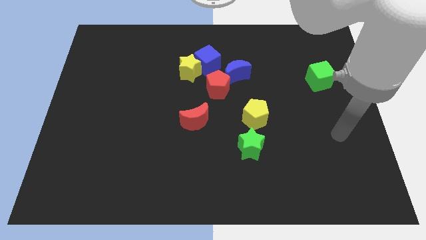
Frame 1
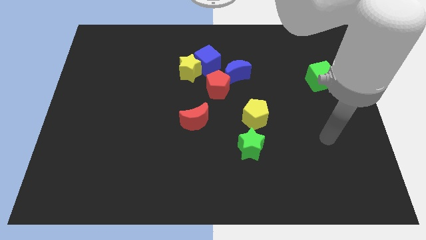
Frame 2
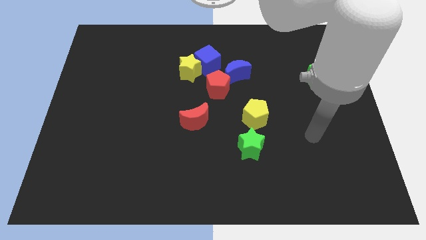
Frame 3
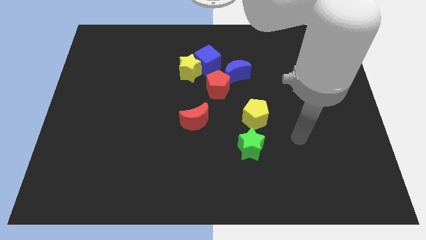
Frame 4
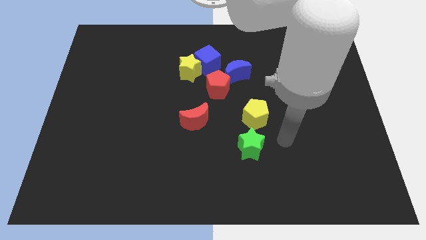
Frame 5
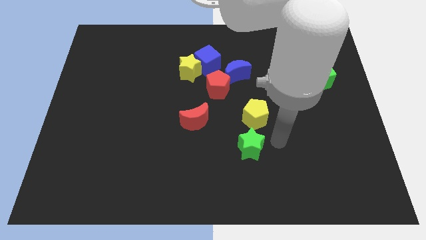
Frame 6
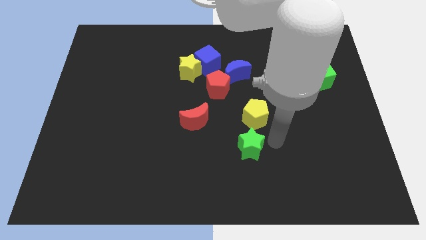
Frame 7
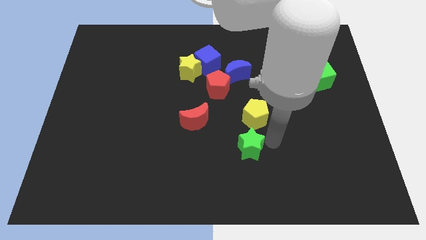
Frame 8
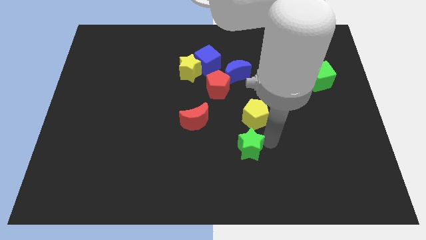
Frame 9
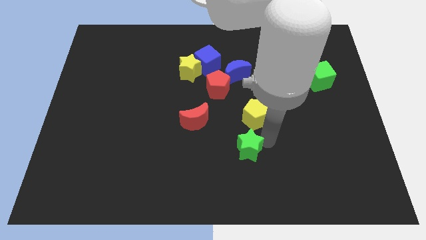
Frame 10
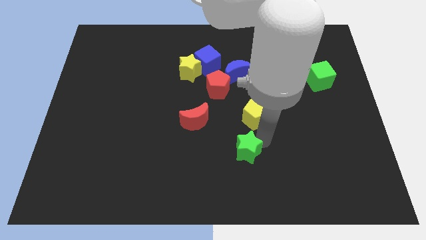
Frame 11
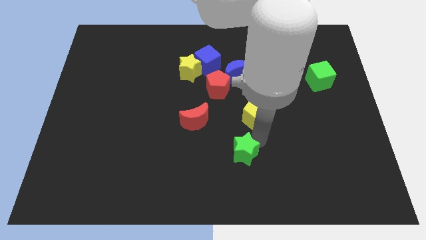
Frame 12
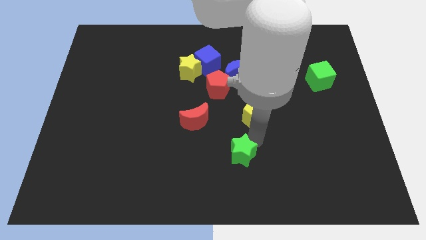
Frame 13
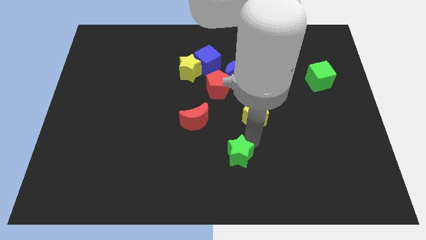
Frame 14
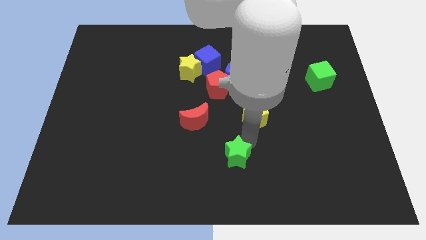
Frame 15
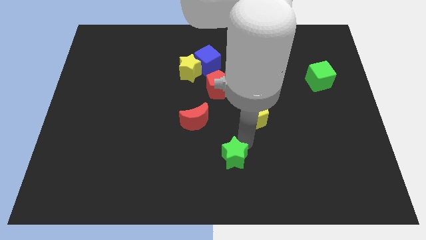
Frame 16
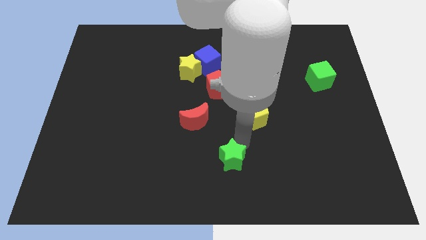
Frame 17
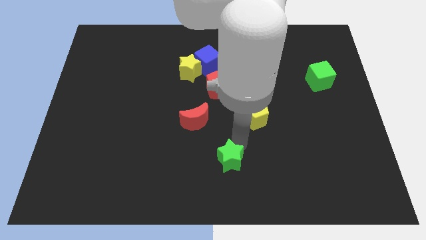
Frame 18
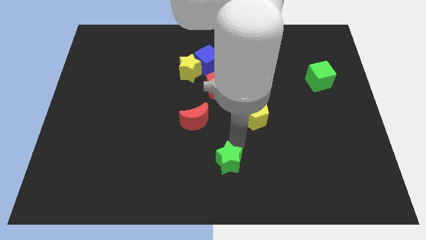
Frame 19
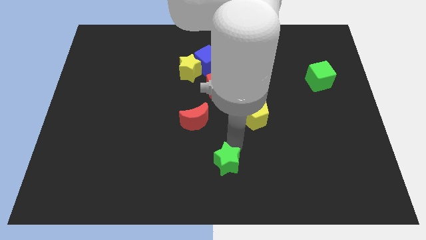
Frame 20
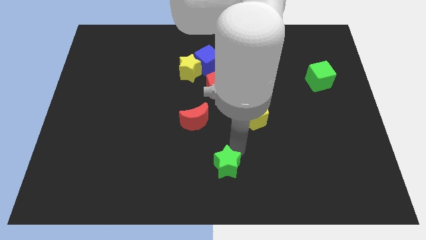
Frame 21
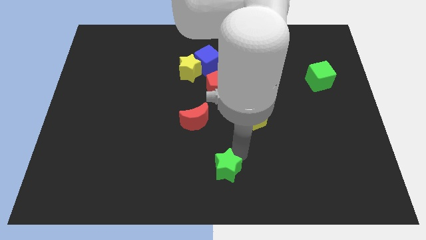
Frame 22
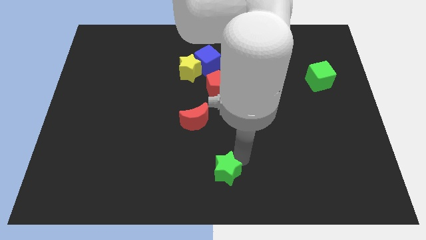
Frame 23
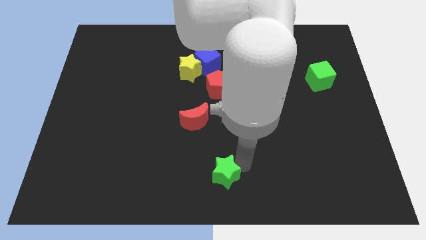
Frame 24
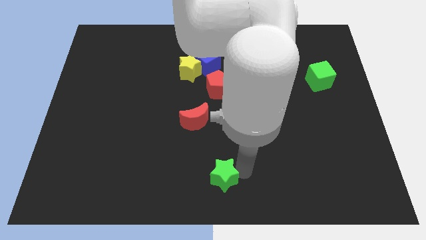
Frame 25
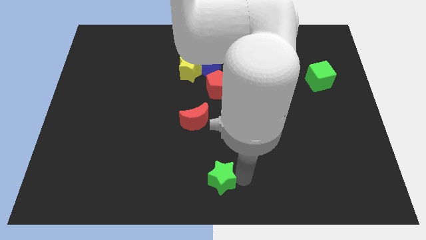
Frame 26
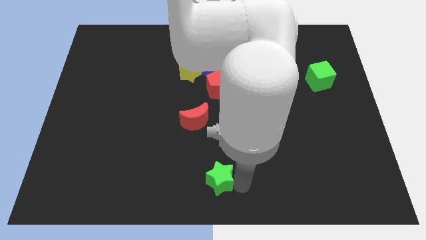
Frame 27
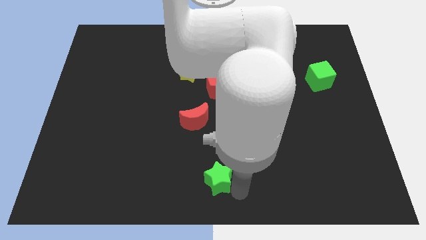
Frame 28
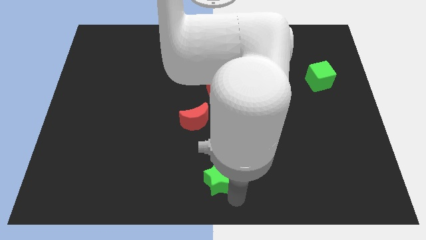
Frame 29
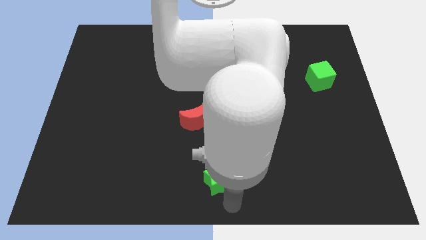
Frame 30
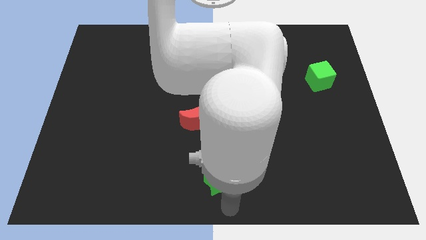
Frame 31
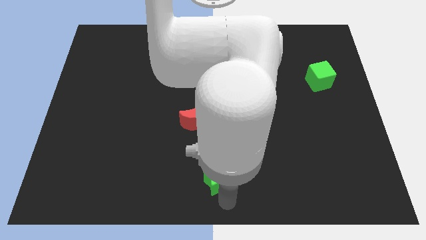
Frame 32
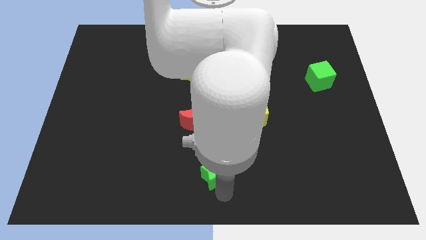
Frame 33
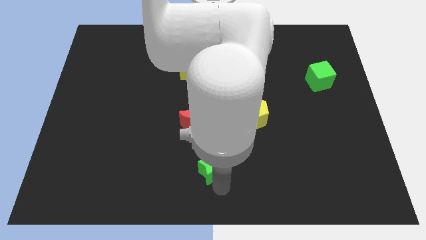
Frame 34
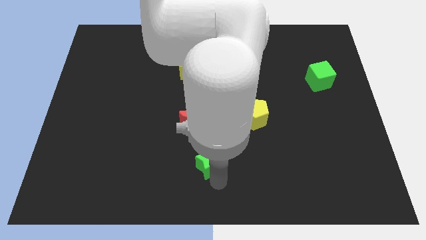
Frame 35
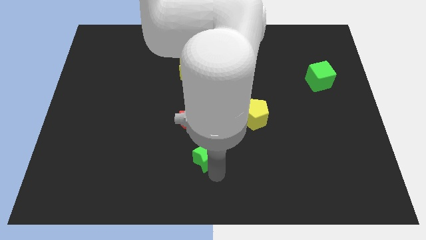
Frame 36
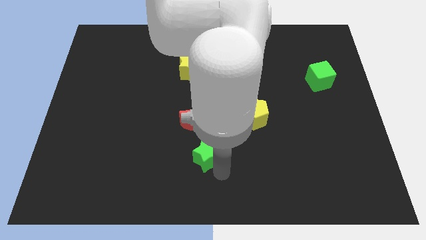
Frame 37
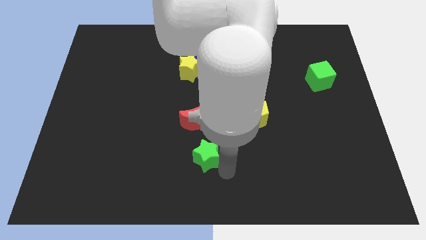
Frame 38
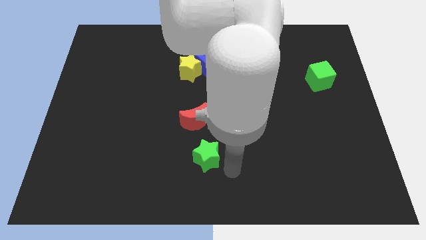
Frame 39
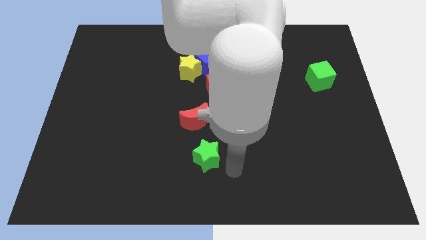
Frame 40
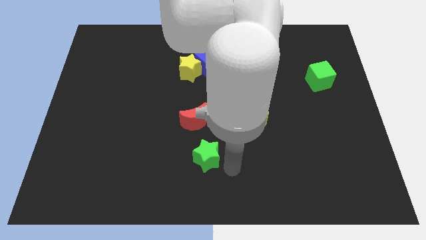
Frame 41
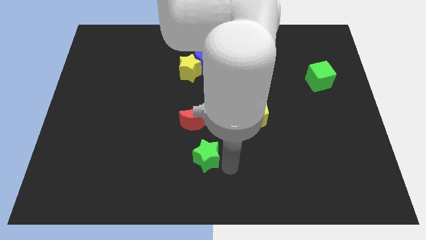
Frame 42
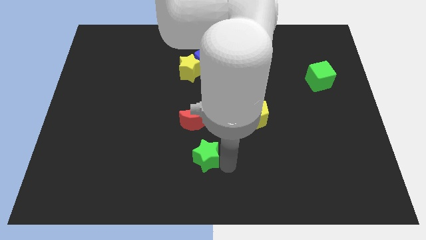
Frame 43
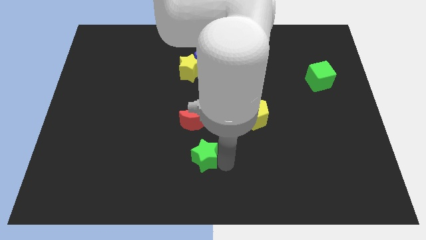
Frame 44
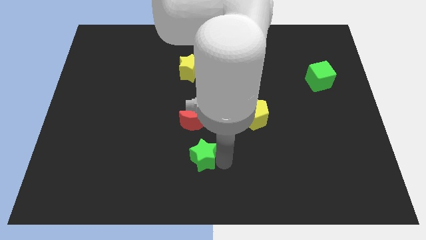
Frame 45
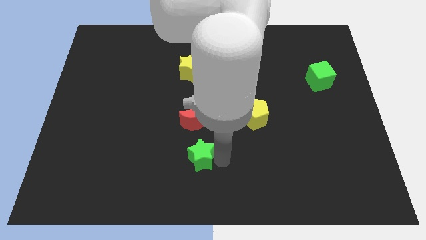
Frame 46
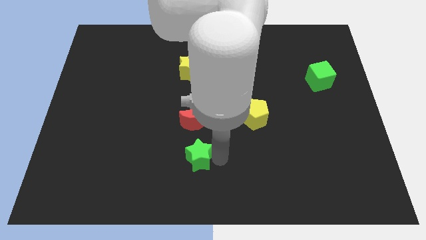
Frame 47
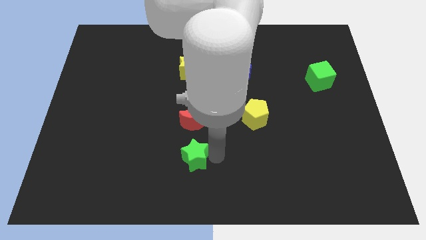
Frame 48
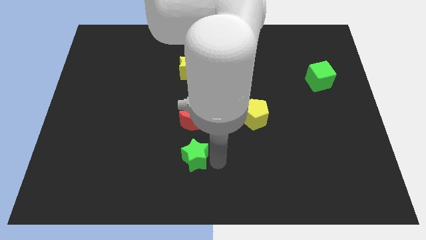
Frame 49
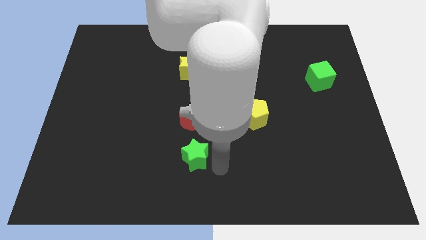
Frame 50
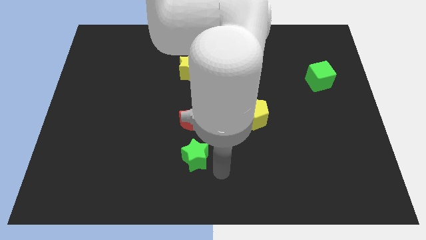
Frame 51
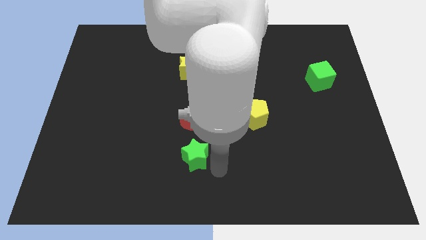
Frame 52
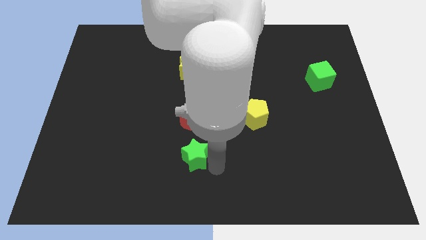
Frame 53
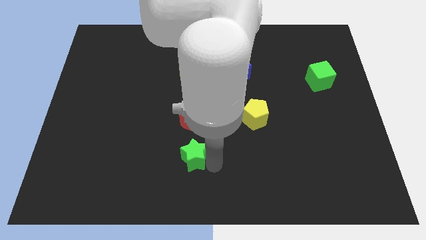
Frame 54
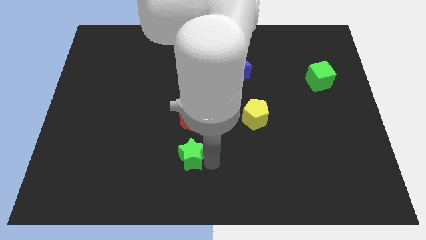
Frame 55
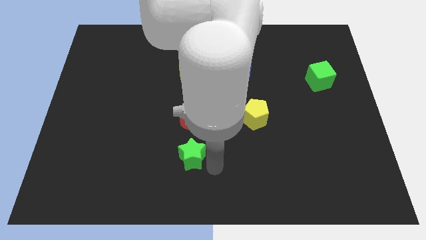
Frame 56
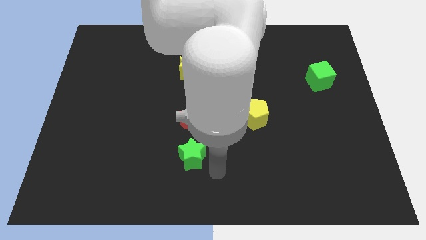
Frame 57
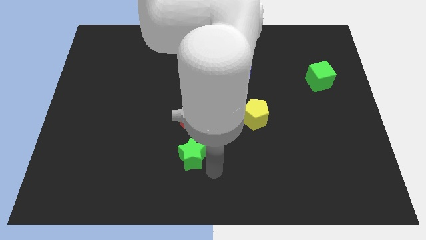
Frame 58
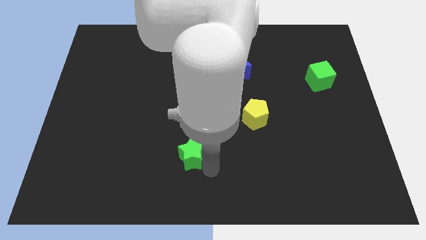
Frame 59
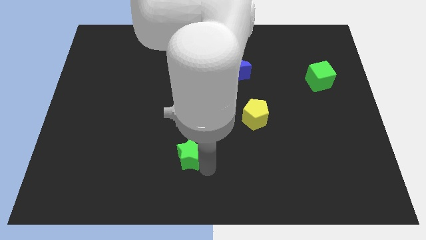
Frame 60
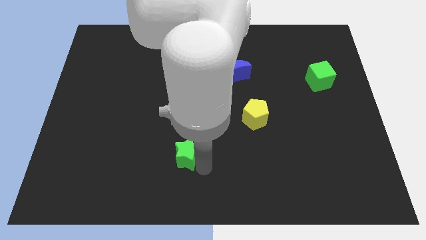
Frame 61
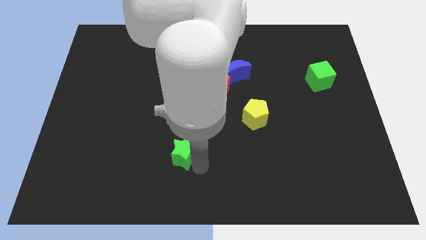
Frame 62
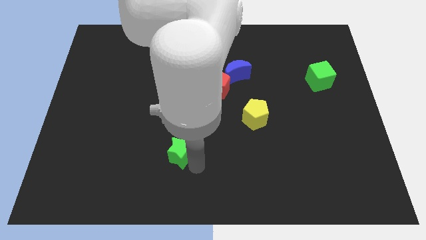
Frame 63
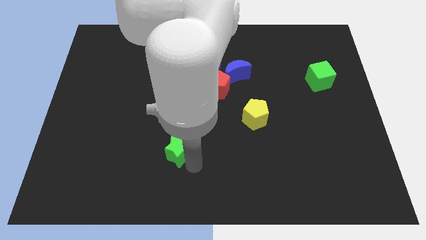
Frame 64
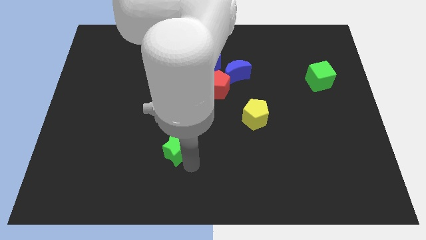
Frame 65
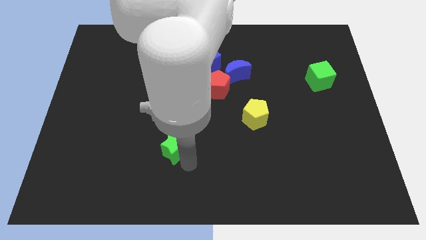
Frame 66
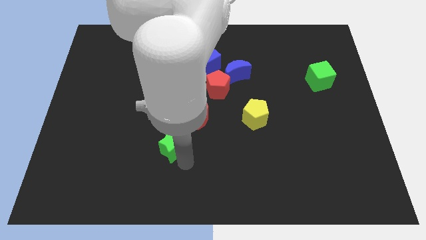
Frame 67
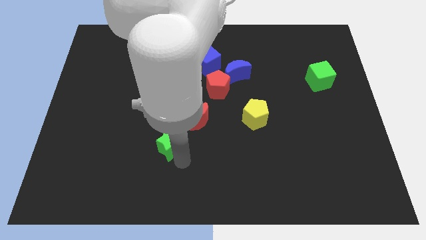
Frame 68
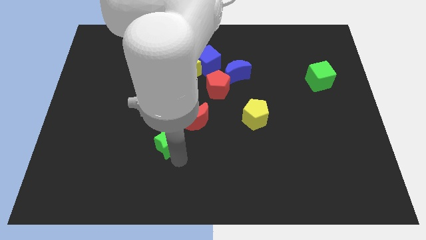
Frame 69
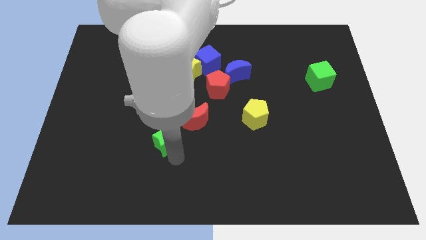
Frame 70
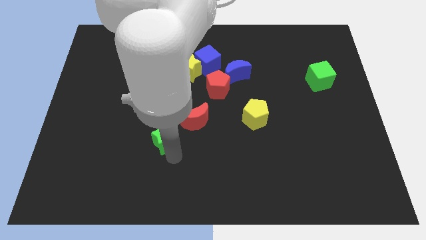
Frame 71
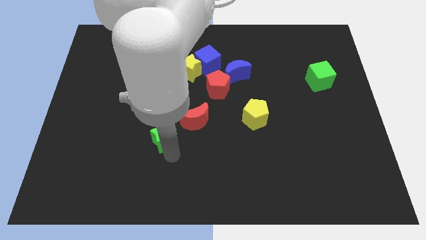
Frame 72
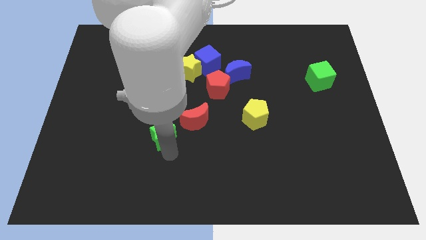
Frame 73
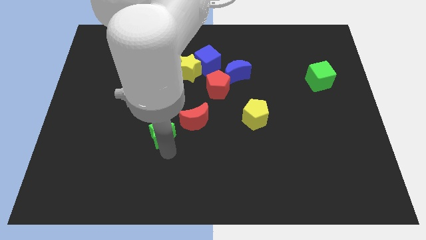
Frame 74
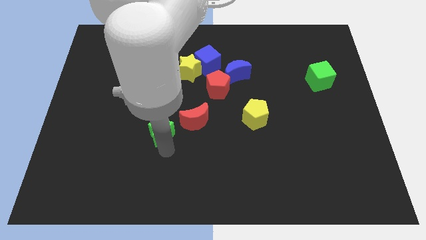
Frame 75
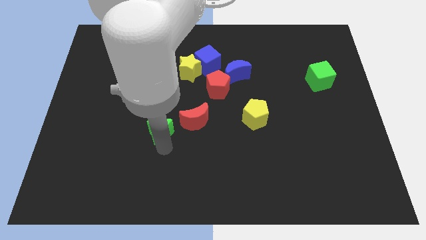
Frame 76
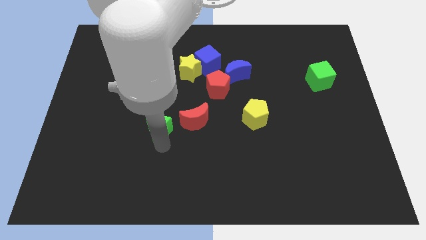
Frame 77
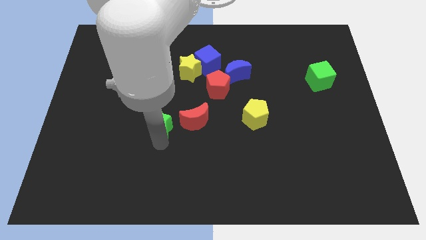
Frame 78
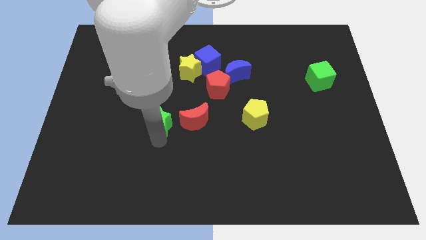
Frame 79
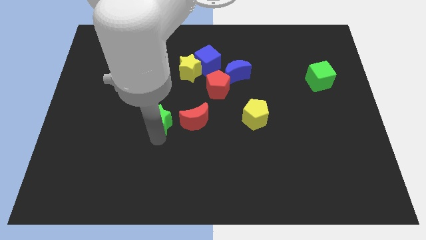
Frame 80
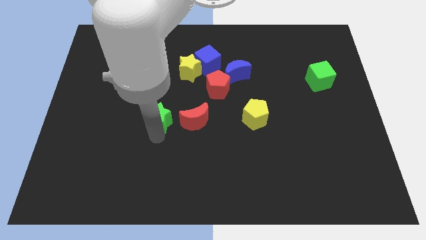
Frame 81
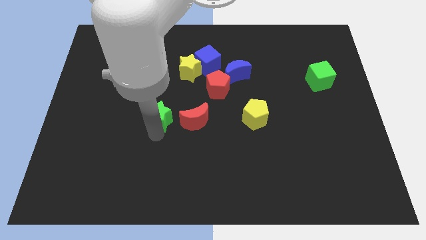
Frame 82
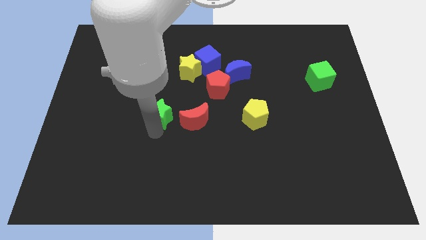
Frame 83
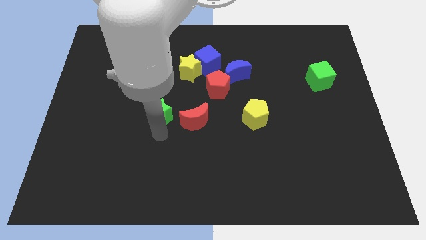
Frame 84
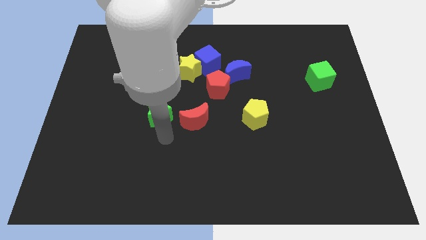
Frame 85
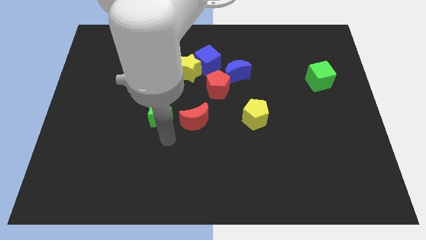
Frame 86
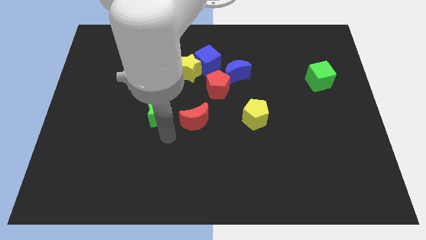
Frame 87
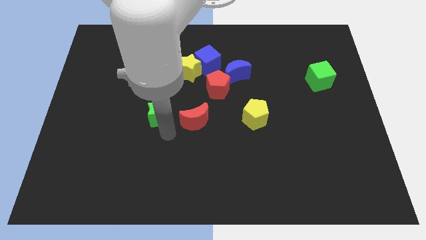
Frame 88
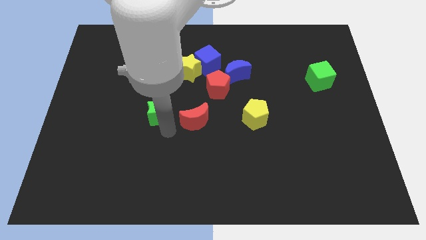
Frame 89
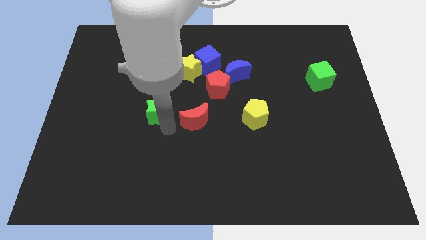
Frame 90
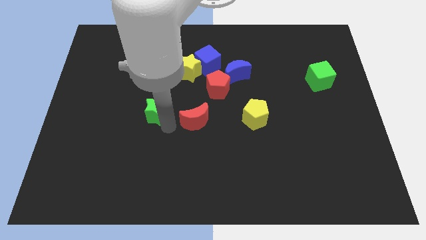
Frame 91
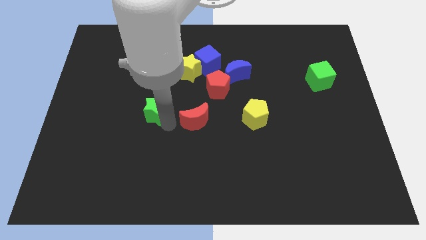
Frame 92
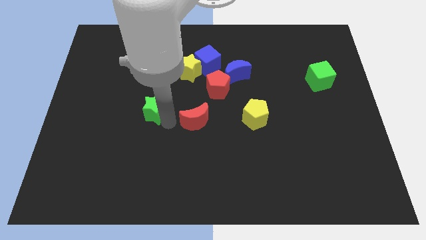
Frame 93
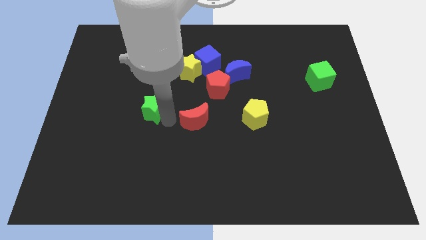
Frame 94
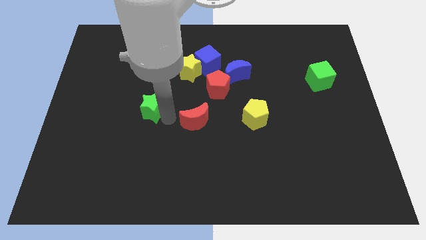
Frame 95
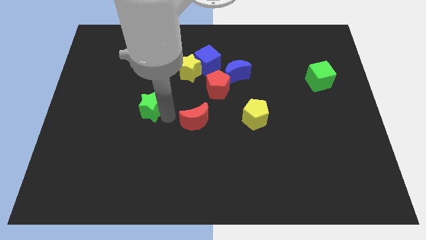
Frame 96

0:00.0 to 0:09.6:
move the green star diagonally up and left
